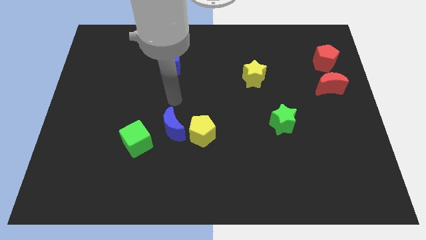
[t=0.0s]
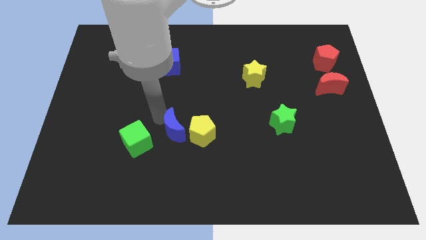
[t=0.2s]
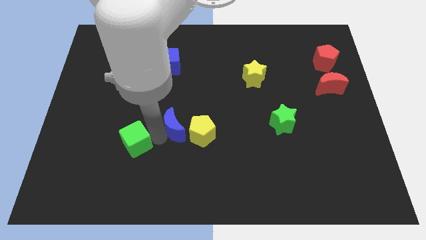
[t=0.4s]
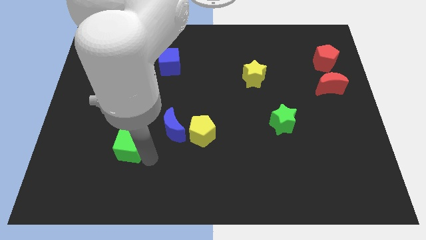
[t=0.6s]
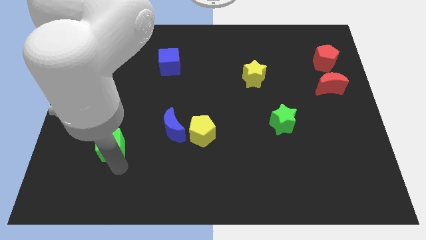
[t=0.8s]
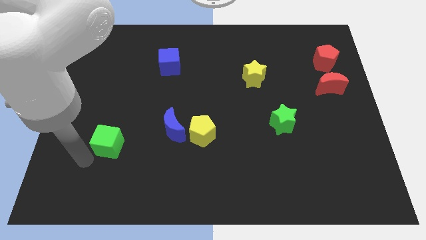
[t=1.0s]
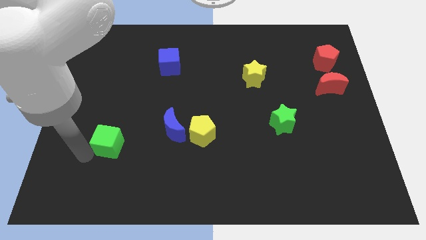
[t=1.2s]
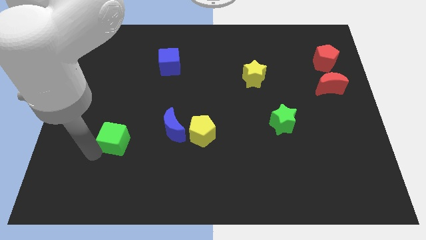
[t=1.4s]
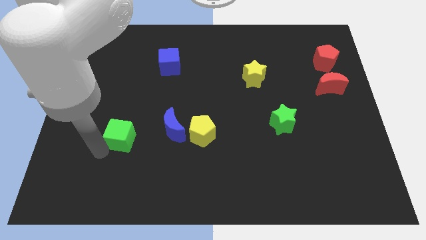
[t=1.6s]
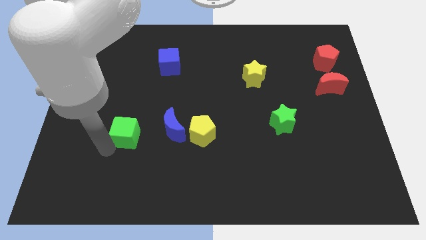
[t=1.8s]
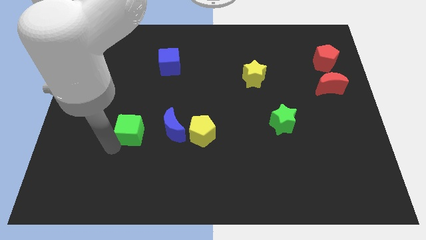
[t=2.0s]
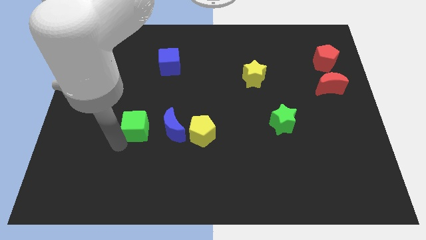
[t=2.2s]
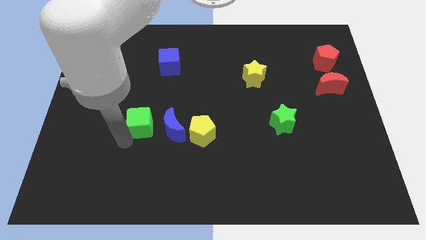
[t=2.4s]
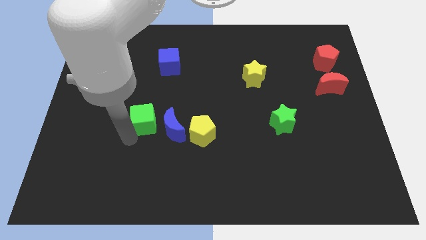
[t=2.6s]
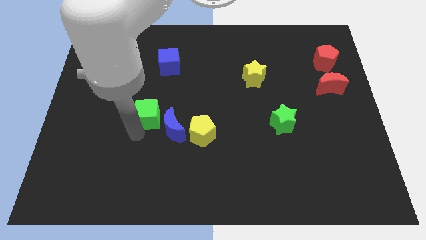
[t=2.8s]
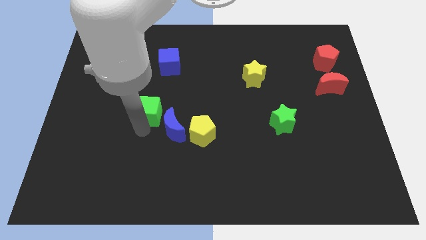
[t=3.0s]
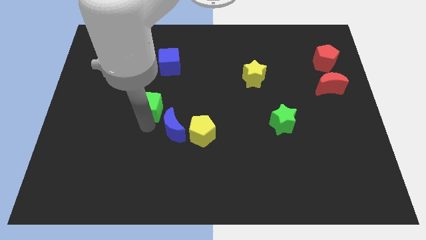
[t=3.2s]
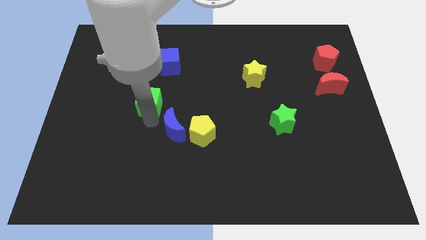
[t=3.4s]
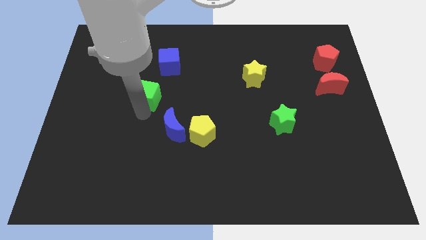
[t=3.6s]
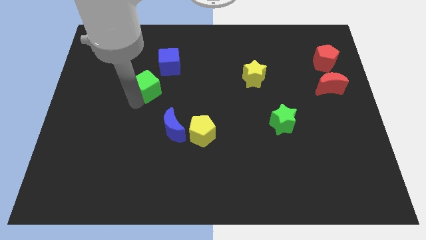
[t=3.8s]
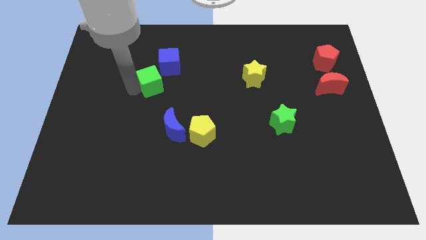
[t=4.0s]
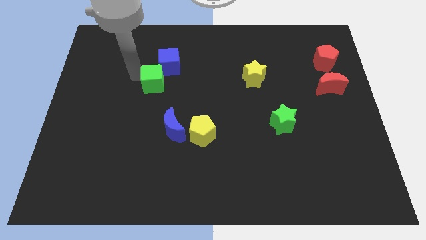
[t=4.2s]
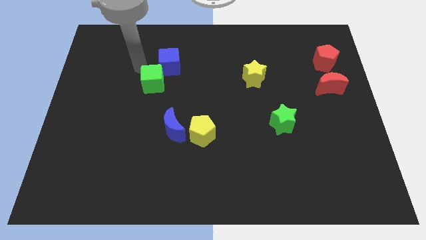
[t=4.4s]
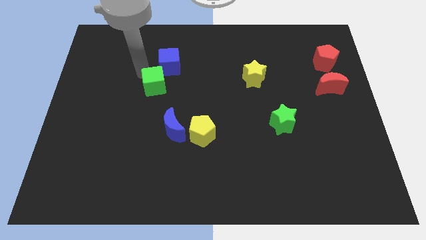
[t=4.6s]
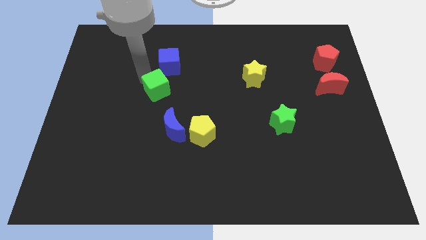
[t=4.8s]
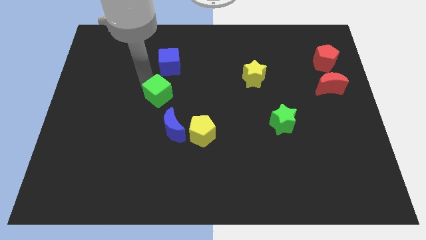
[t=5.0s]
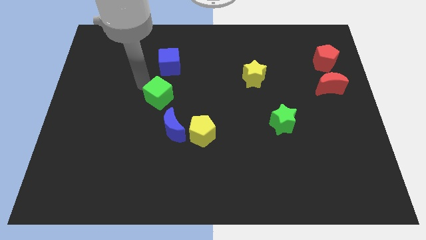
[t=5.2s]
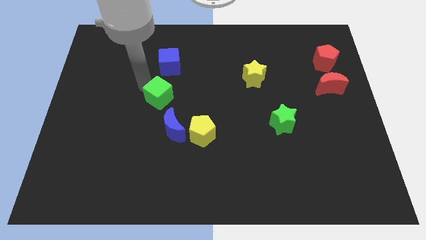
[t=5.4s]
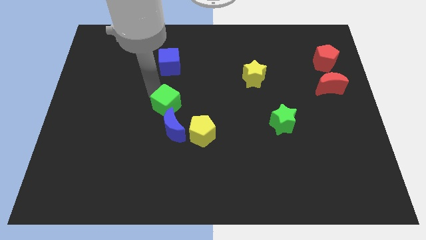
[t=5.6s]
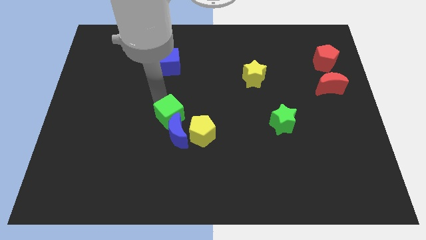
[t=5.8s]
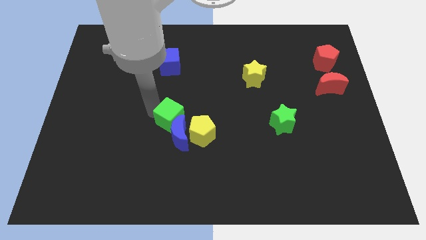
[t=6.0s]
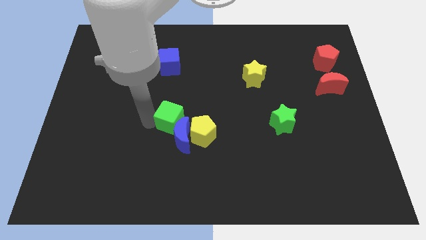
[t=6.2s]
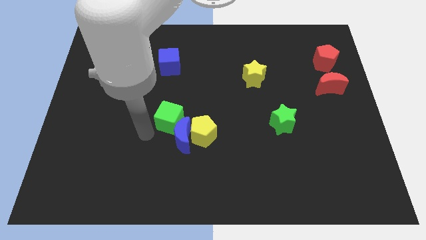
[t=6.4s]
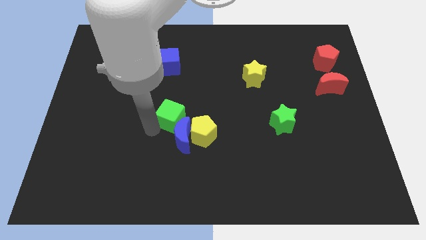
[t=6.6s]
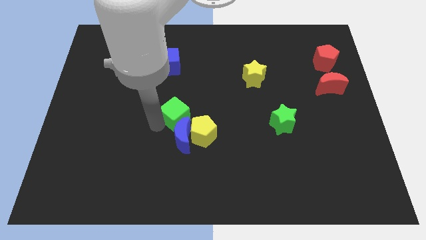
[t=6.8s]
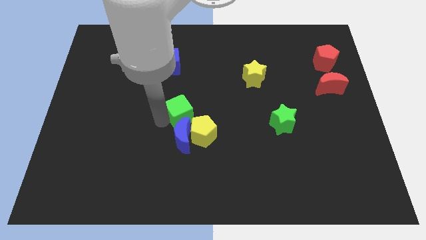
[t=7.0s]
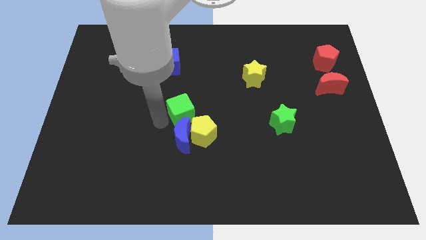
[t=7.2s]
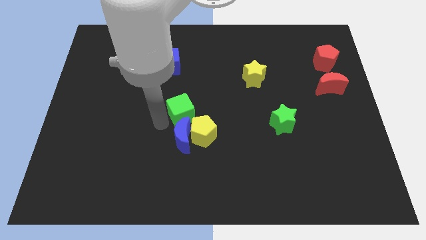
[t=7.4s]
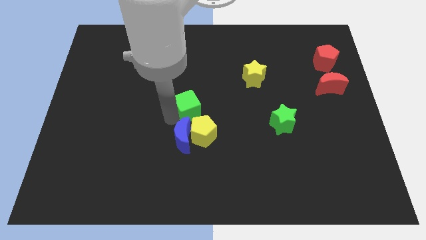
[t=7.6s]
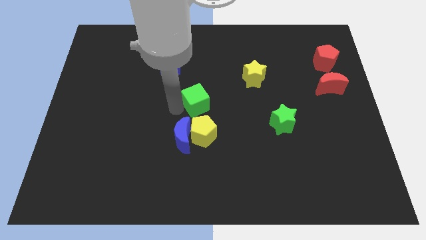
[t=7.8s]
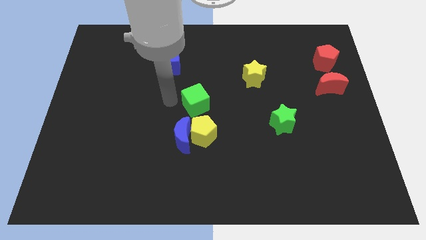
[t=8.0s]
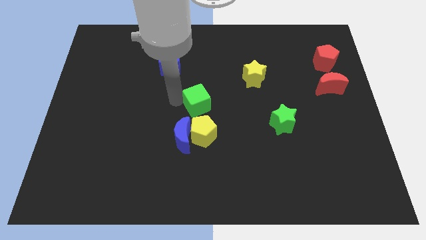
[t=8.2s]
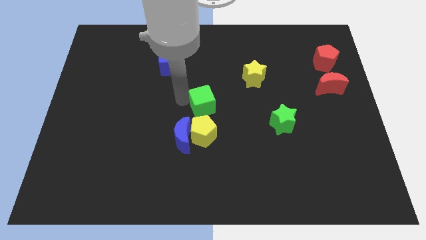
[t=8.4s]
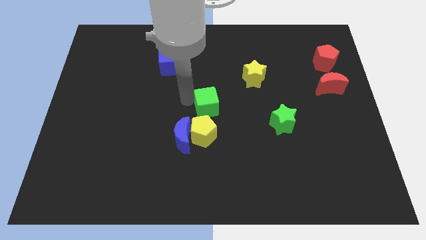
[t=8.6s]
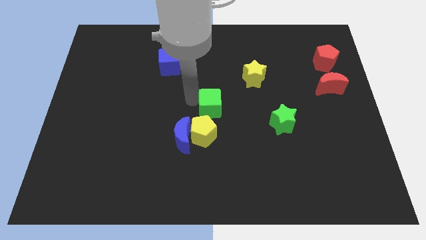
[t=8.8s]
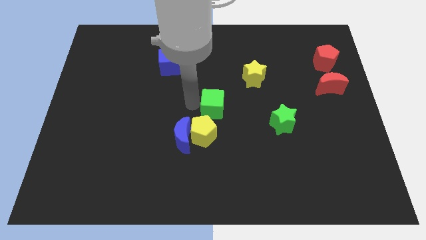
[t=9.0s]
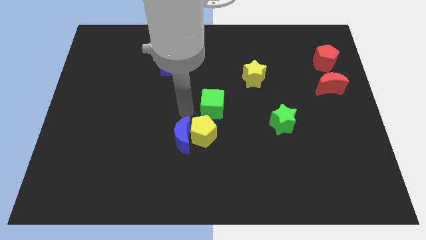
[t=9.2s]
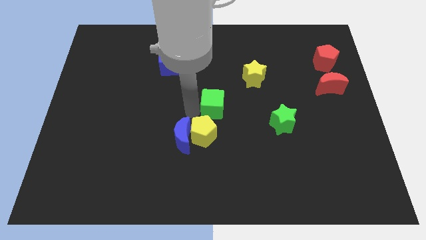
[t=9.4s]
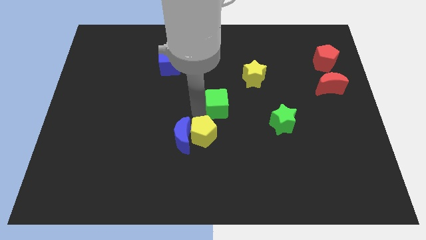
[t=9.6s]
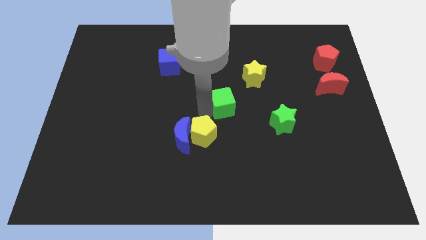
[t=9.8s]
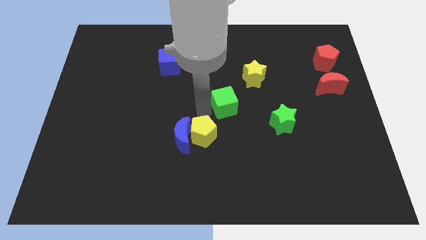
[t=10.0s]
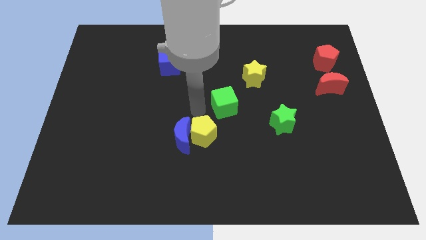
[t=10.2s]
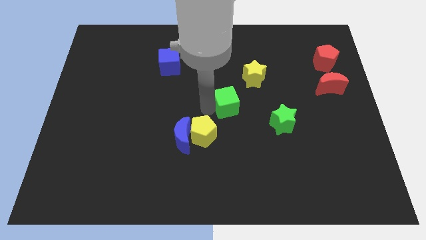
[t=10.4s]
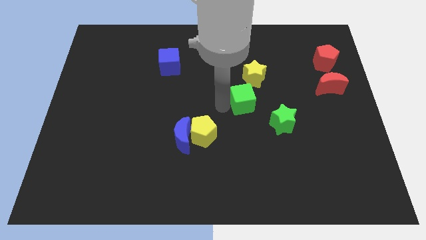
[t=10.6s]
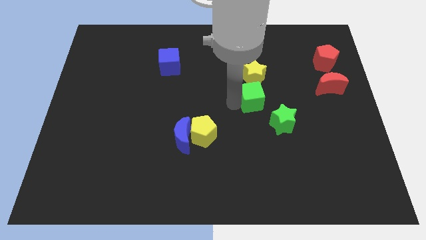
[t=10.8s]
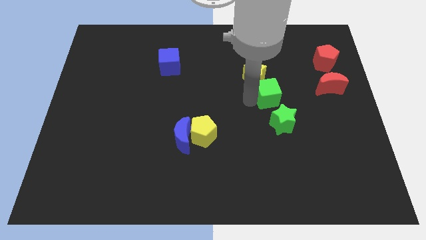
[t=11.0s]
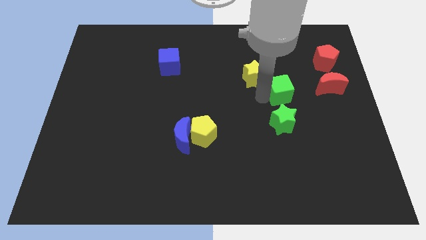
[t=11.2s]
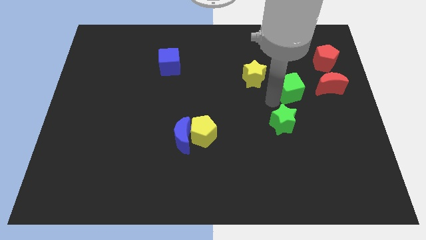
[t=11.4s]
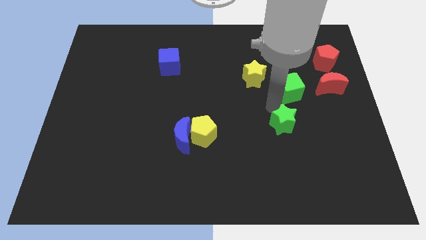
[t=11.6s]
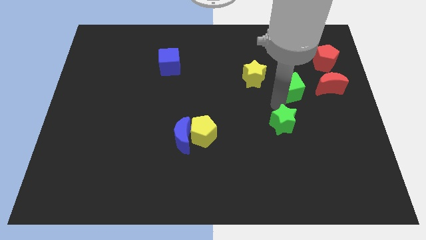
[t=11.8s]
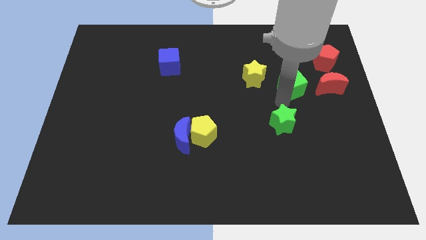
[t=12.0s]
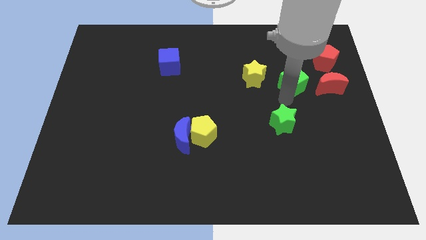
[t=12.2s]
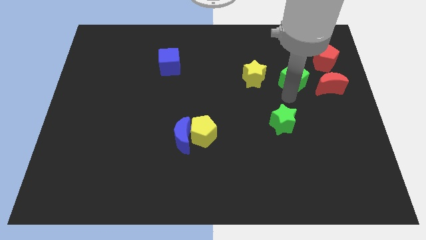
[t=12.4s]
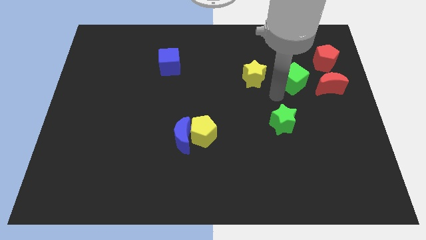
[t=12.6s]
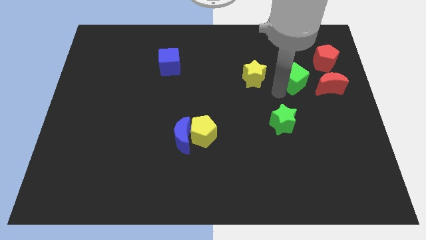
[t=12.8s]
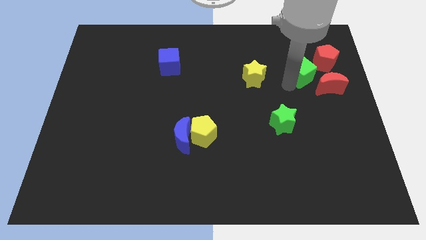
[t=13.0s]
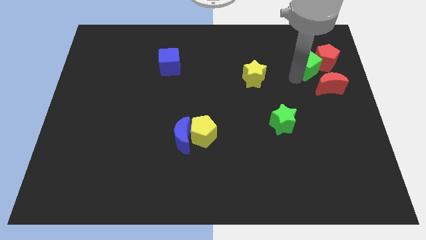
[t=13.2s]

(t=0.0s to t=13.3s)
slide the green cube towards the red pentagon

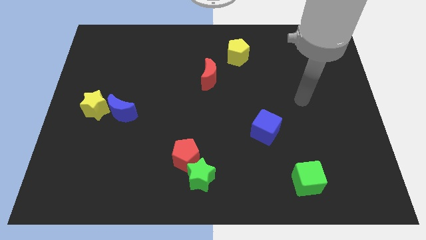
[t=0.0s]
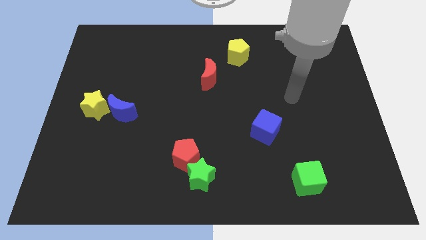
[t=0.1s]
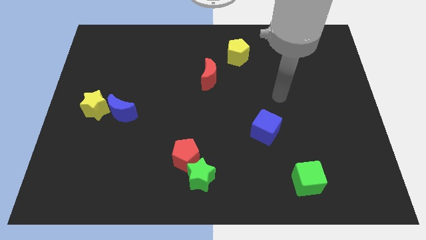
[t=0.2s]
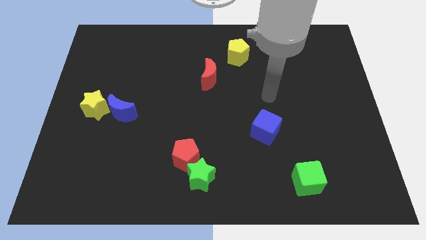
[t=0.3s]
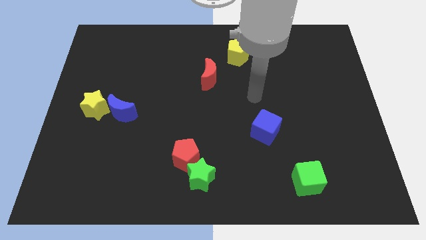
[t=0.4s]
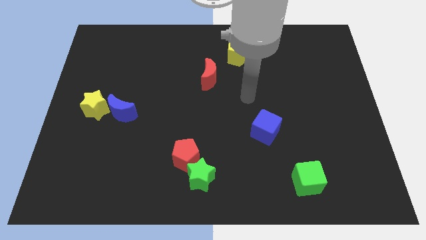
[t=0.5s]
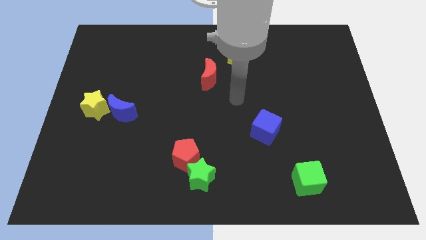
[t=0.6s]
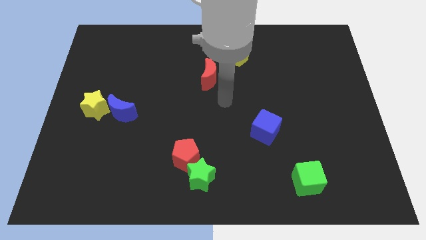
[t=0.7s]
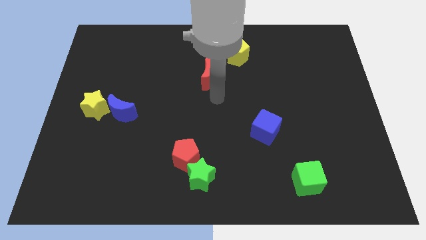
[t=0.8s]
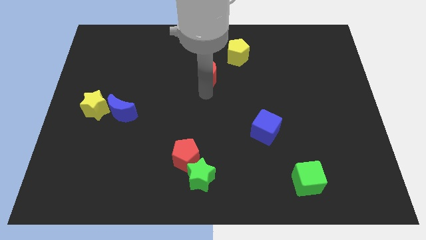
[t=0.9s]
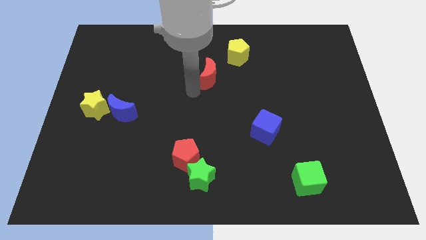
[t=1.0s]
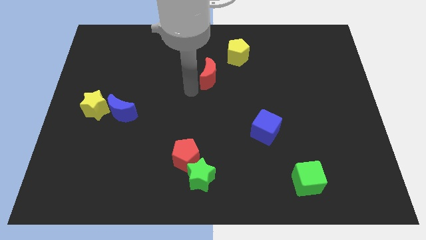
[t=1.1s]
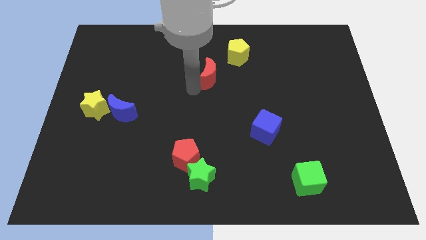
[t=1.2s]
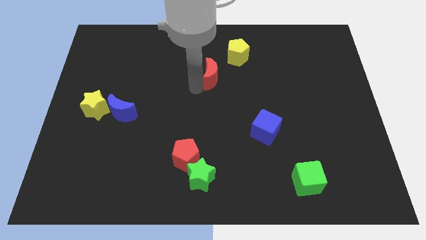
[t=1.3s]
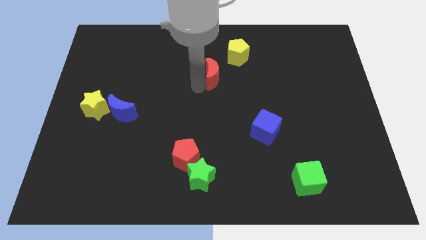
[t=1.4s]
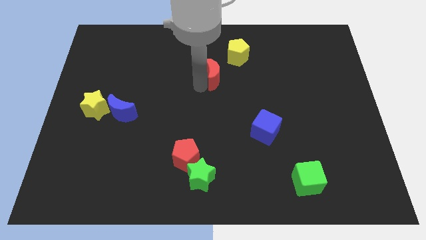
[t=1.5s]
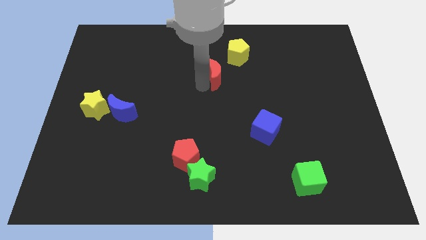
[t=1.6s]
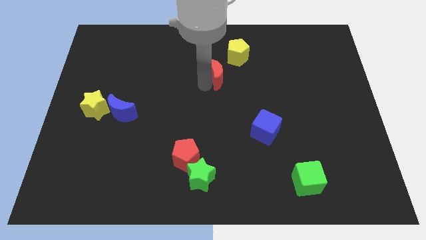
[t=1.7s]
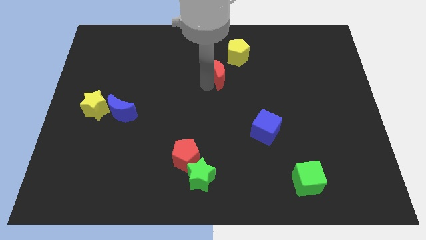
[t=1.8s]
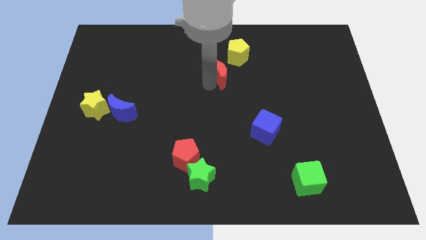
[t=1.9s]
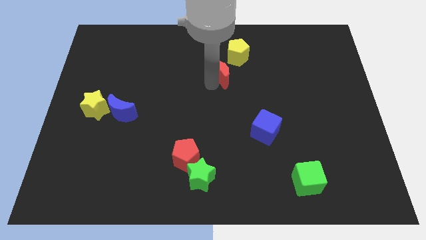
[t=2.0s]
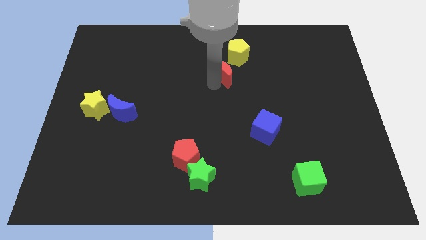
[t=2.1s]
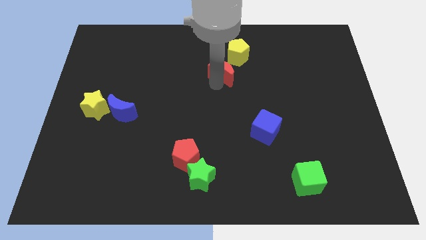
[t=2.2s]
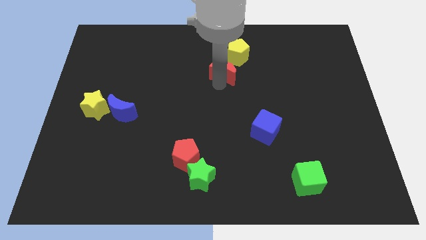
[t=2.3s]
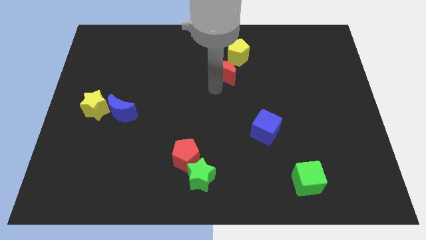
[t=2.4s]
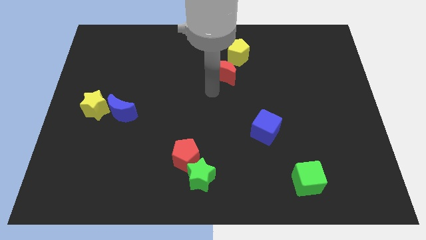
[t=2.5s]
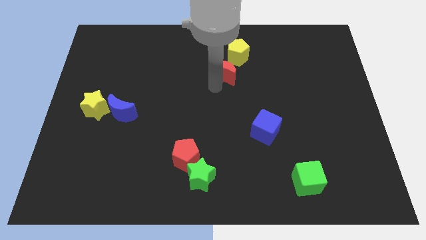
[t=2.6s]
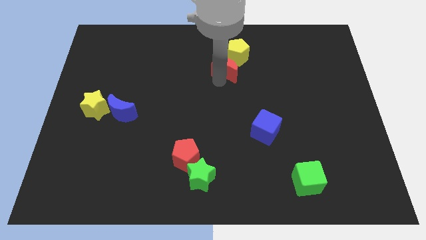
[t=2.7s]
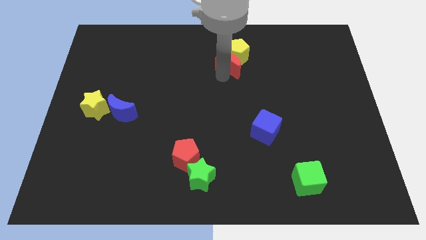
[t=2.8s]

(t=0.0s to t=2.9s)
slide the red moon next to the yellow pentagon
